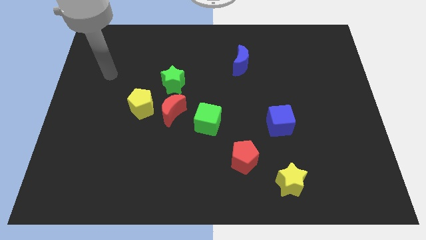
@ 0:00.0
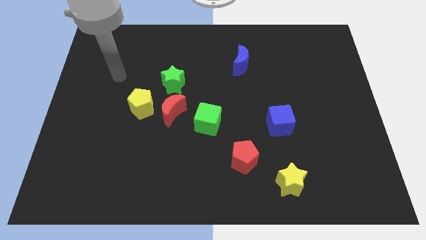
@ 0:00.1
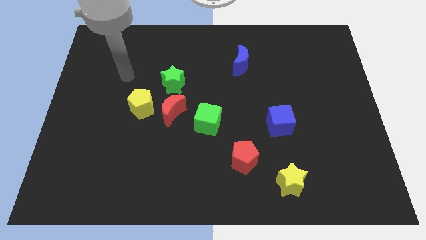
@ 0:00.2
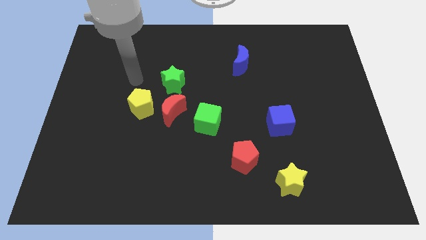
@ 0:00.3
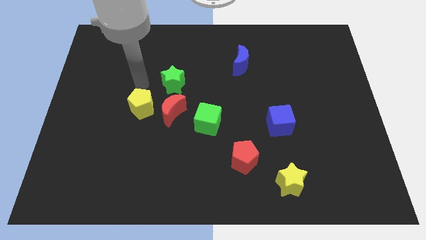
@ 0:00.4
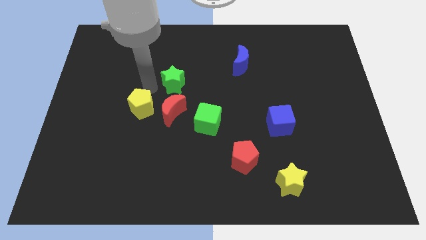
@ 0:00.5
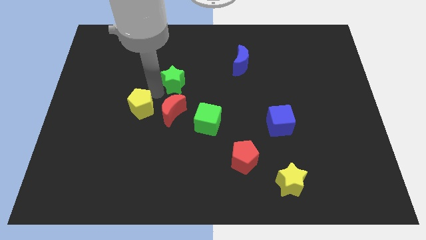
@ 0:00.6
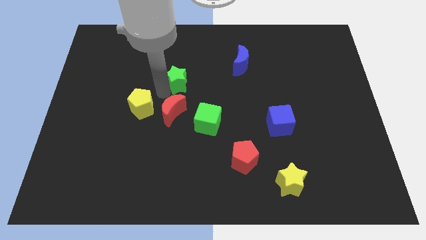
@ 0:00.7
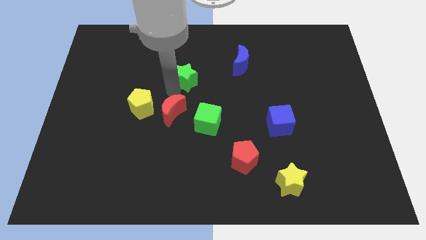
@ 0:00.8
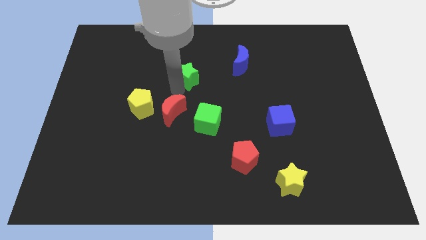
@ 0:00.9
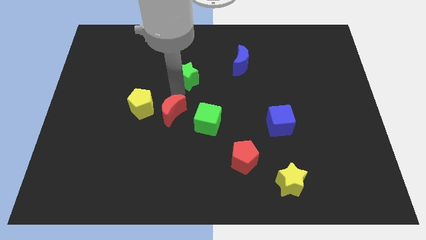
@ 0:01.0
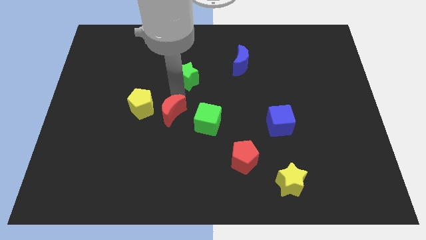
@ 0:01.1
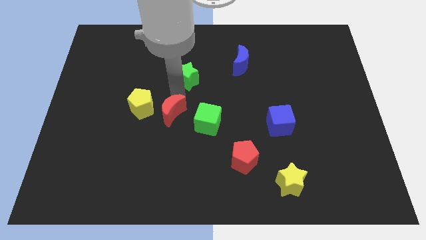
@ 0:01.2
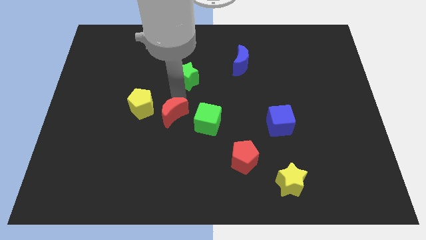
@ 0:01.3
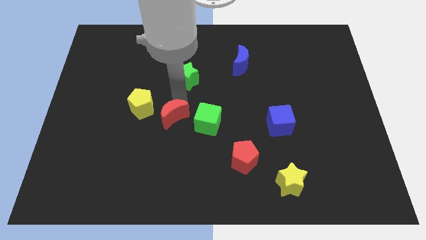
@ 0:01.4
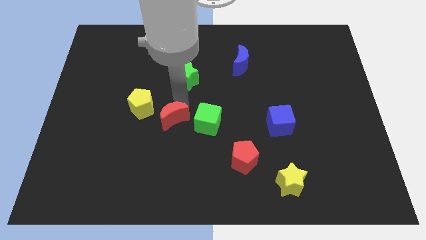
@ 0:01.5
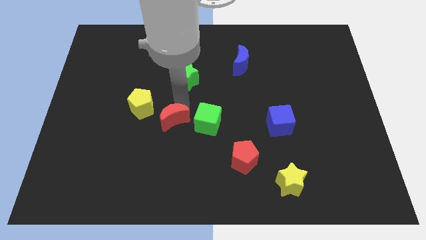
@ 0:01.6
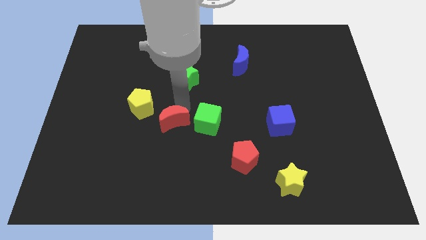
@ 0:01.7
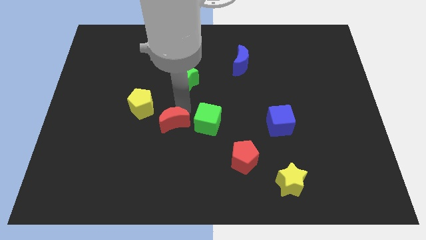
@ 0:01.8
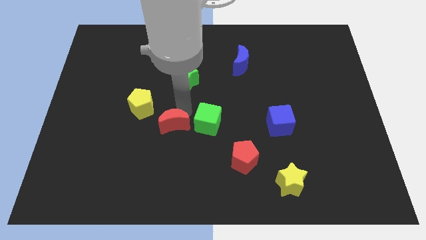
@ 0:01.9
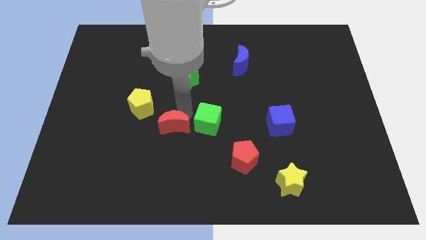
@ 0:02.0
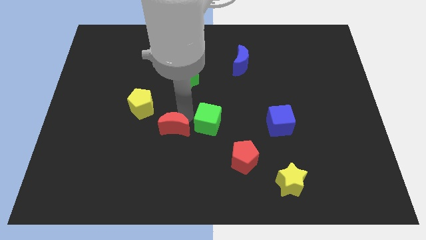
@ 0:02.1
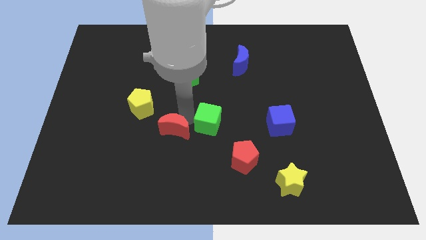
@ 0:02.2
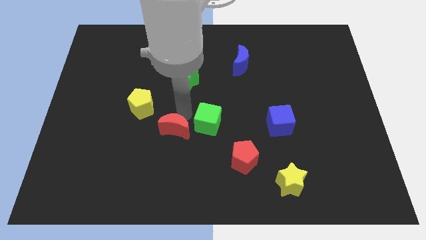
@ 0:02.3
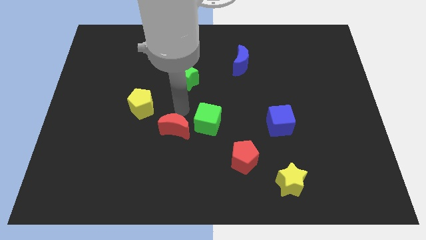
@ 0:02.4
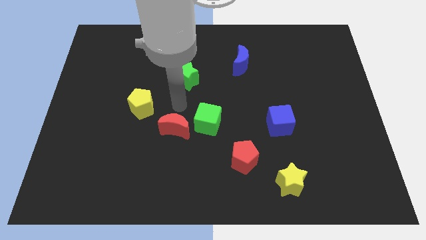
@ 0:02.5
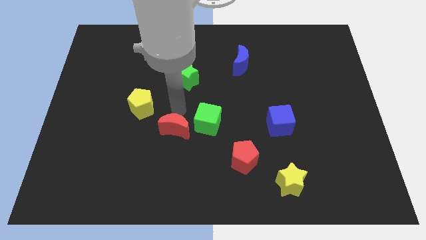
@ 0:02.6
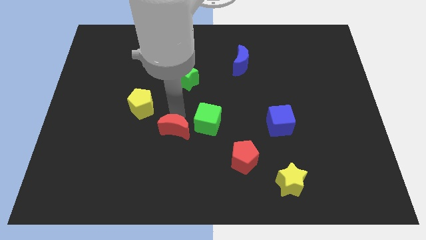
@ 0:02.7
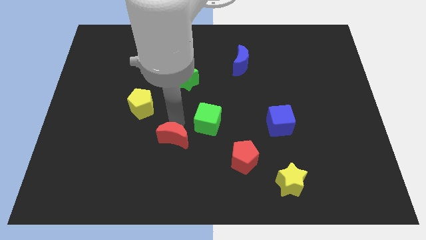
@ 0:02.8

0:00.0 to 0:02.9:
pull the red moon apart from the clump

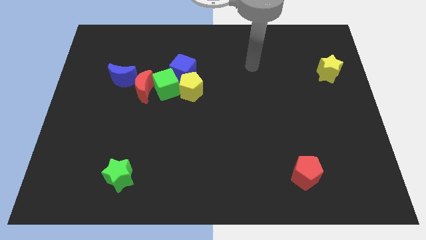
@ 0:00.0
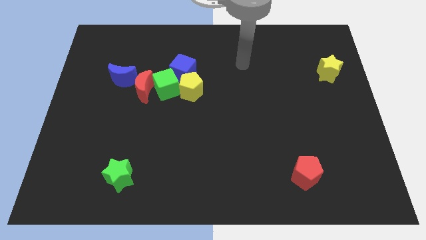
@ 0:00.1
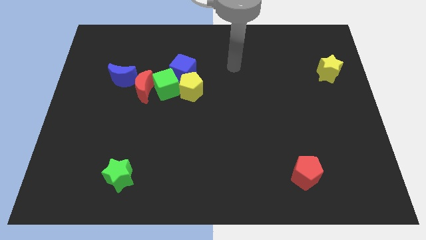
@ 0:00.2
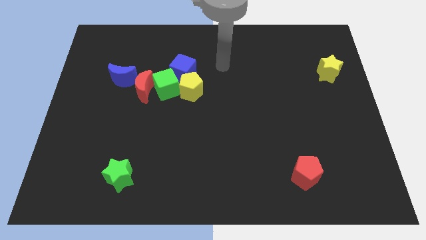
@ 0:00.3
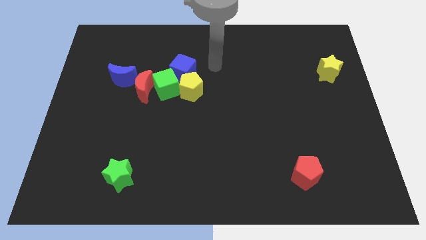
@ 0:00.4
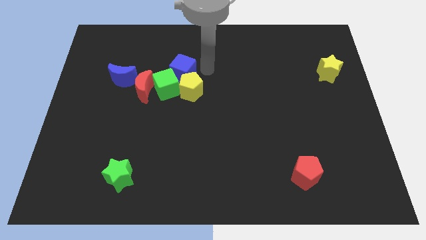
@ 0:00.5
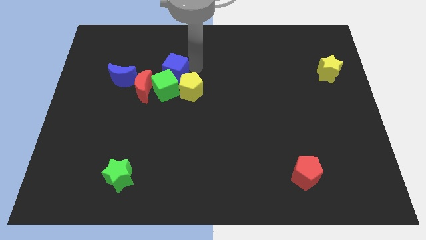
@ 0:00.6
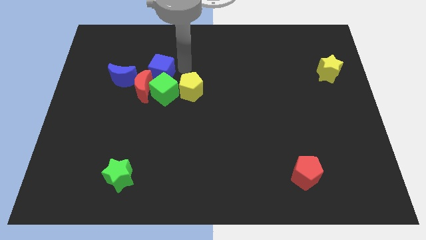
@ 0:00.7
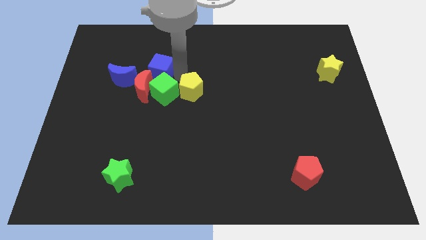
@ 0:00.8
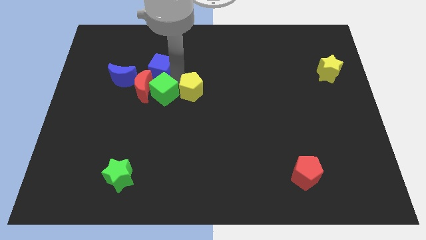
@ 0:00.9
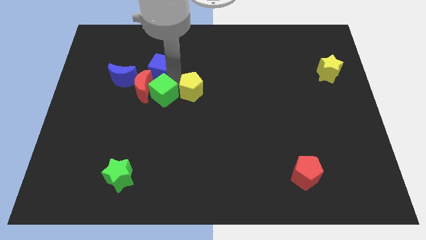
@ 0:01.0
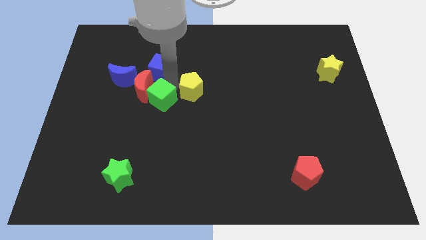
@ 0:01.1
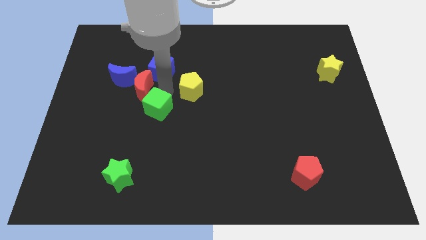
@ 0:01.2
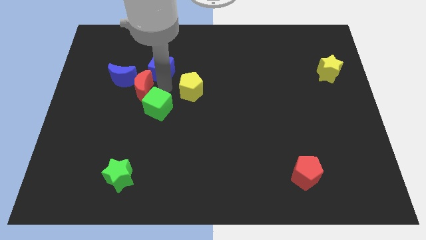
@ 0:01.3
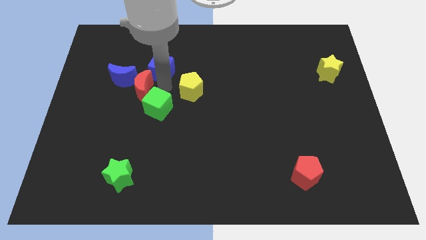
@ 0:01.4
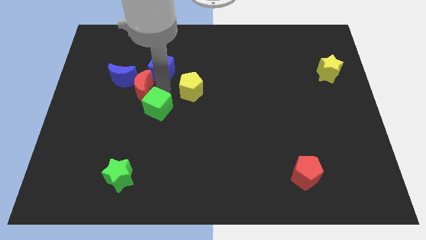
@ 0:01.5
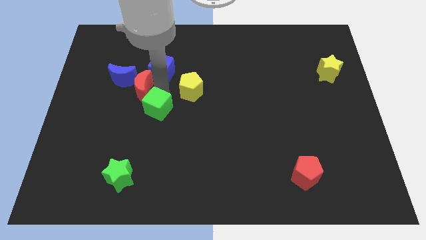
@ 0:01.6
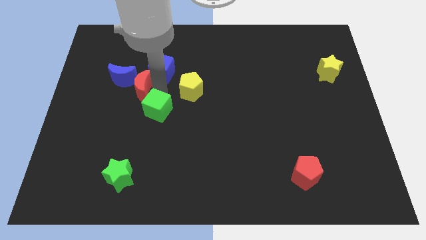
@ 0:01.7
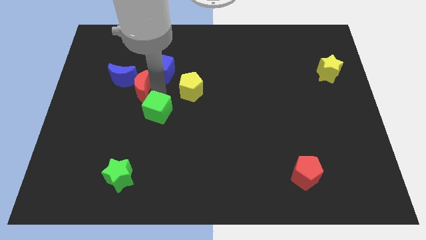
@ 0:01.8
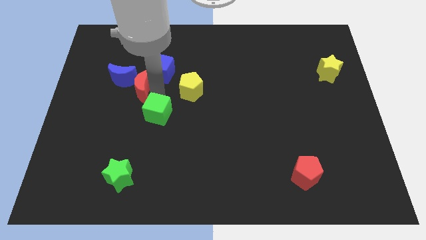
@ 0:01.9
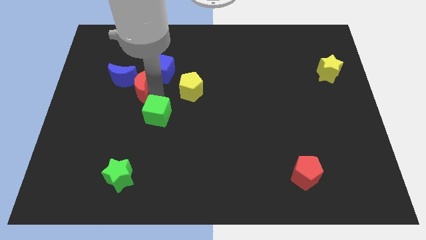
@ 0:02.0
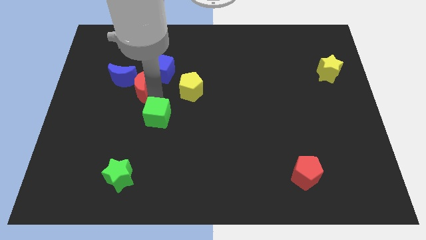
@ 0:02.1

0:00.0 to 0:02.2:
pull the green cube apart from the red moon, yellow pentagon, and blue cube

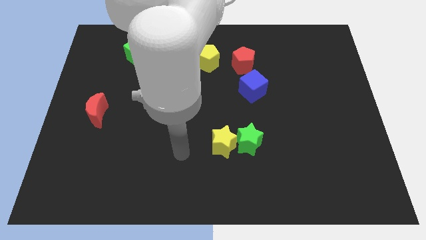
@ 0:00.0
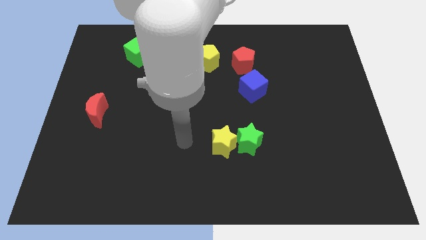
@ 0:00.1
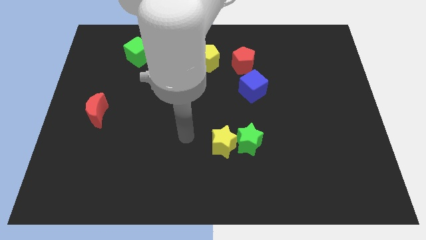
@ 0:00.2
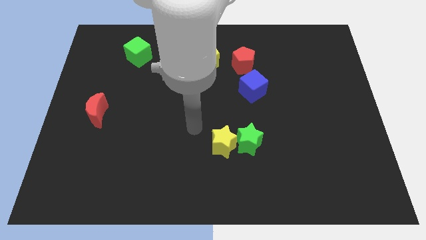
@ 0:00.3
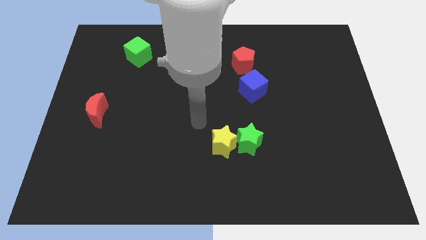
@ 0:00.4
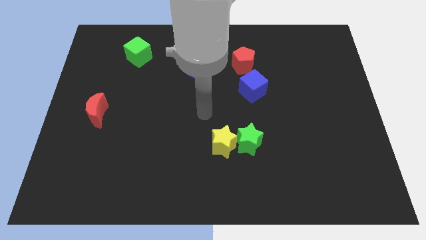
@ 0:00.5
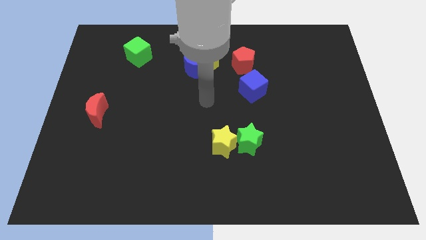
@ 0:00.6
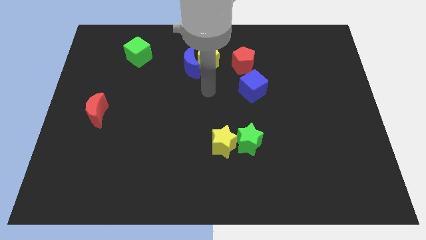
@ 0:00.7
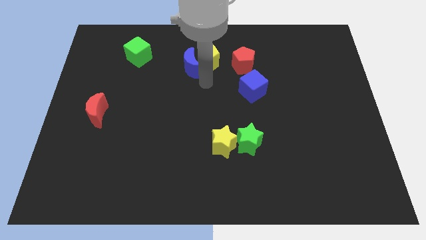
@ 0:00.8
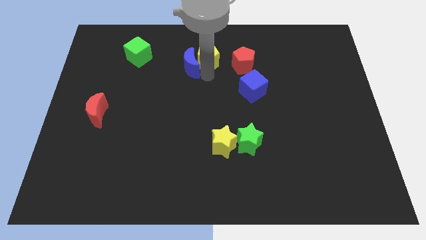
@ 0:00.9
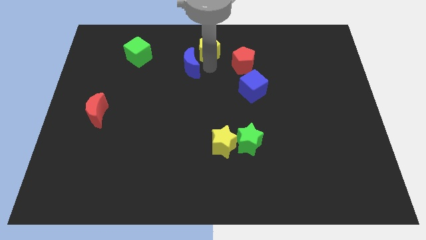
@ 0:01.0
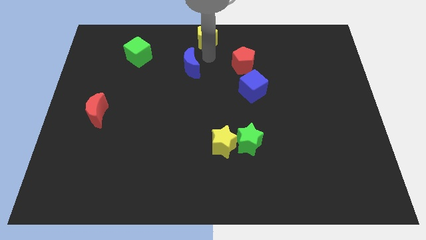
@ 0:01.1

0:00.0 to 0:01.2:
separate the blue moon from the yellow pentagon

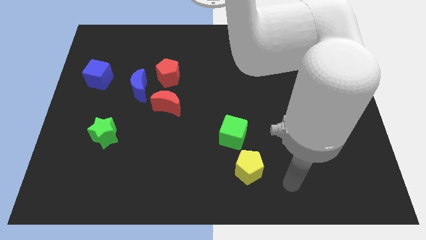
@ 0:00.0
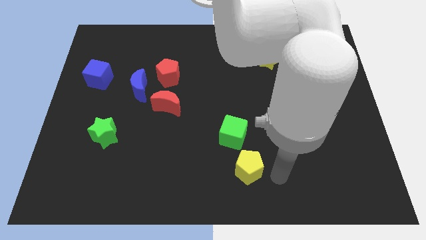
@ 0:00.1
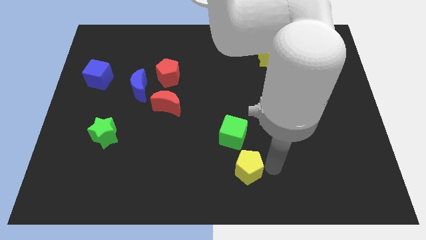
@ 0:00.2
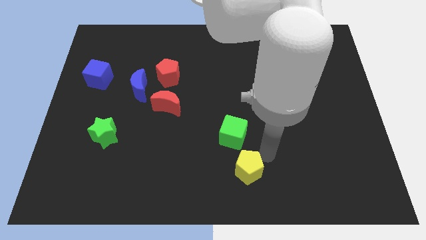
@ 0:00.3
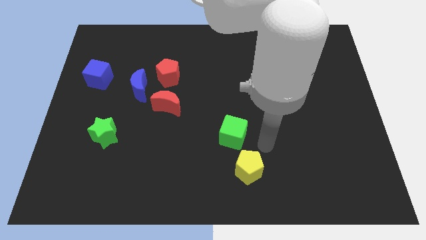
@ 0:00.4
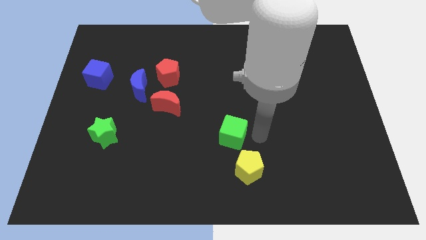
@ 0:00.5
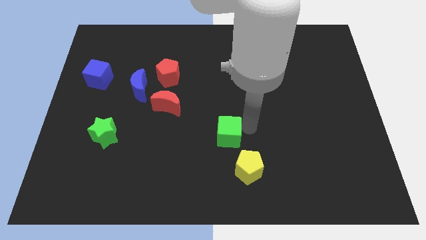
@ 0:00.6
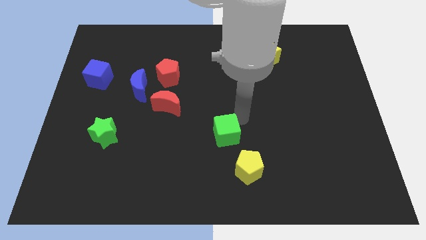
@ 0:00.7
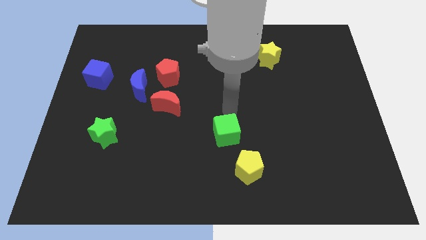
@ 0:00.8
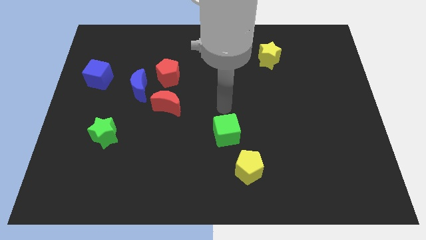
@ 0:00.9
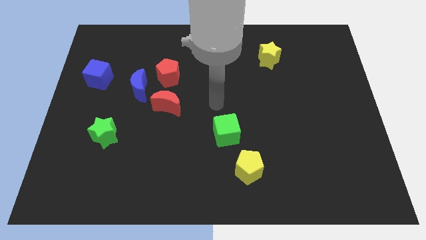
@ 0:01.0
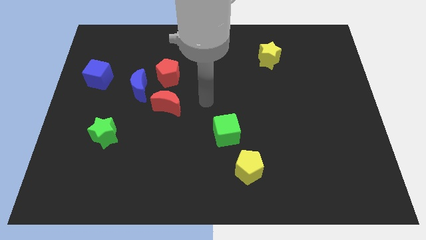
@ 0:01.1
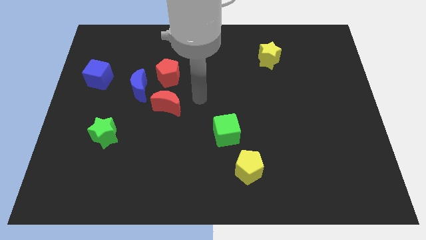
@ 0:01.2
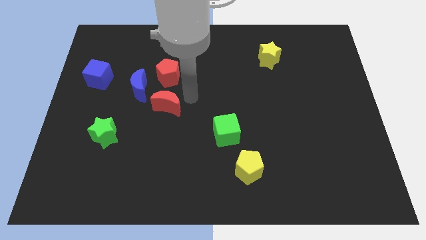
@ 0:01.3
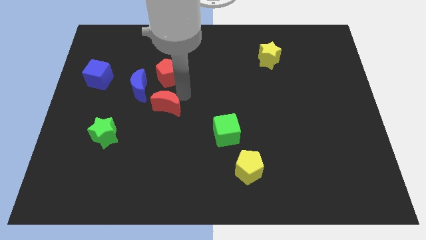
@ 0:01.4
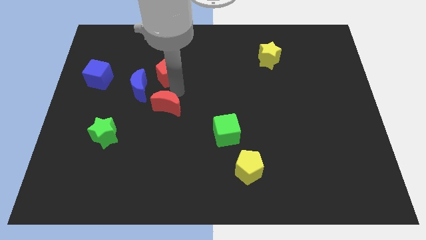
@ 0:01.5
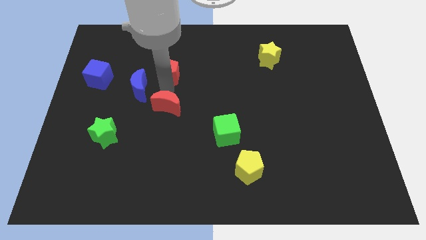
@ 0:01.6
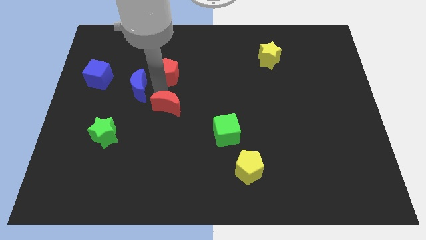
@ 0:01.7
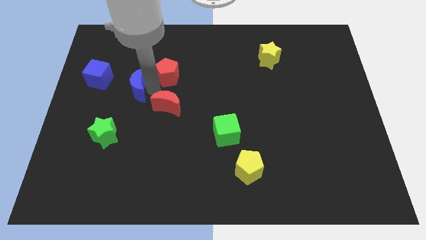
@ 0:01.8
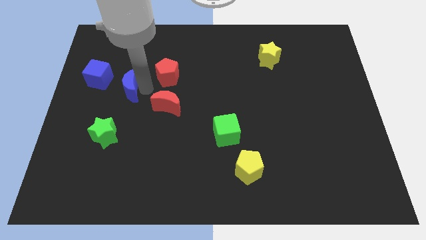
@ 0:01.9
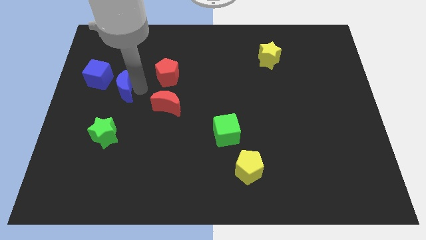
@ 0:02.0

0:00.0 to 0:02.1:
separate the blue moon from the red pentagon and red moon

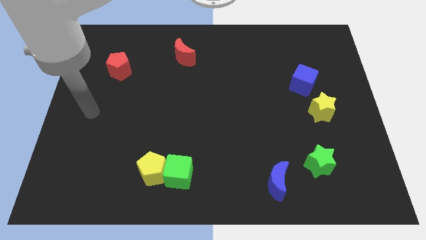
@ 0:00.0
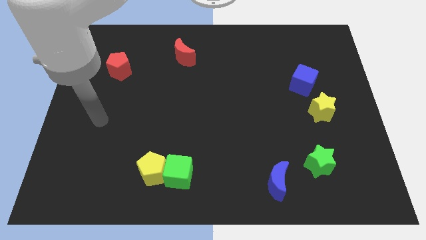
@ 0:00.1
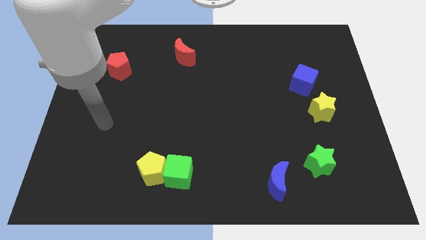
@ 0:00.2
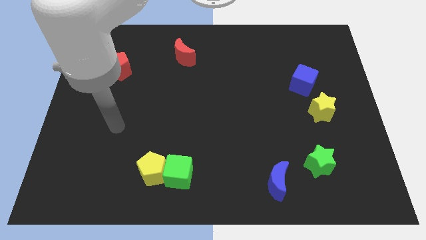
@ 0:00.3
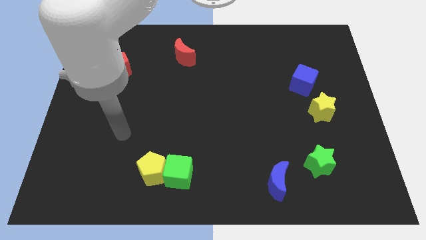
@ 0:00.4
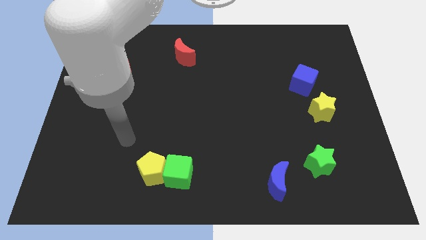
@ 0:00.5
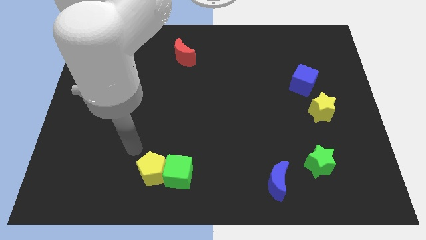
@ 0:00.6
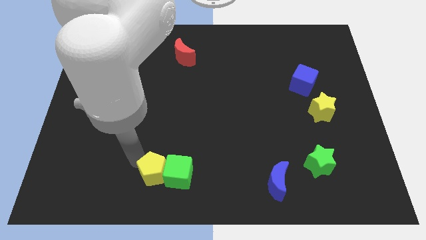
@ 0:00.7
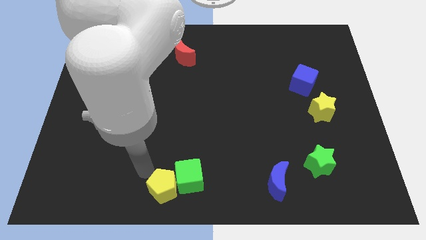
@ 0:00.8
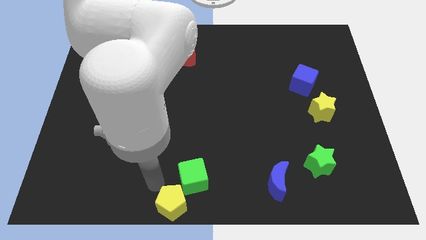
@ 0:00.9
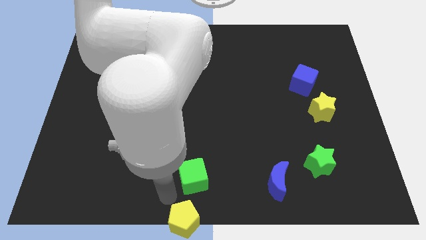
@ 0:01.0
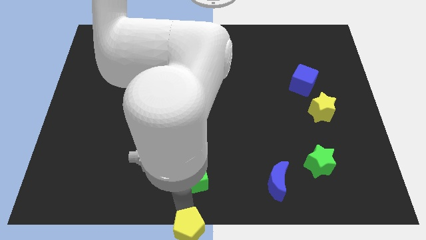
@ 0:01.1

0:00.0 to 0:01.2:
pull the green cube apart from the yellow pentagon
